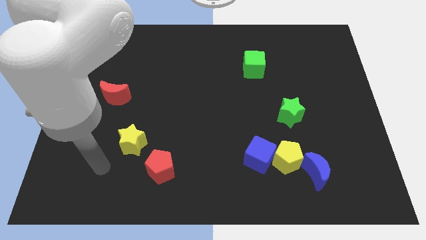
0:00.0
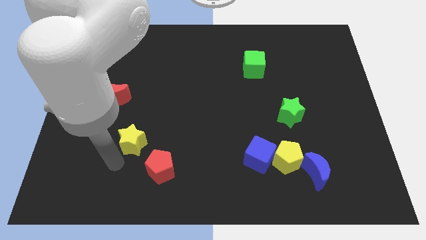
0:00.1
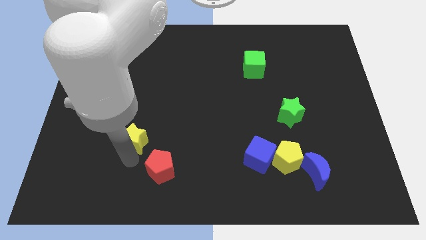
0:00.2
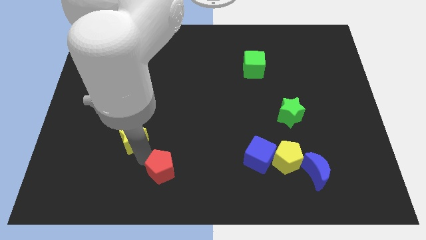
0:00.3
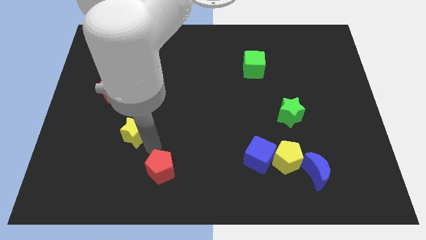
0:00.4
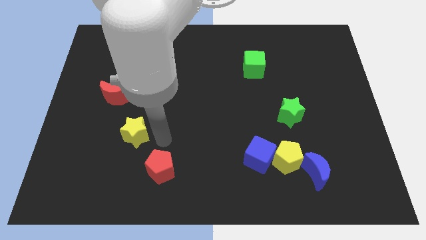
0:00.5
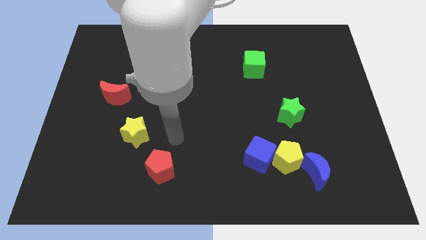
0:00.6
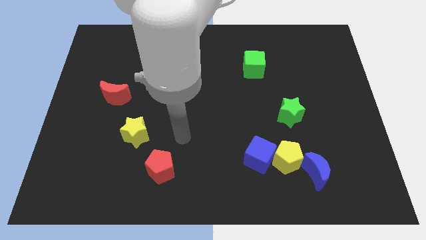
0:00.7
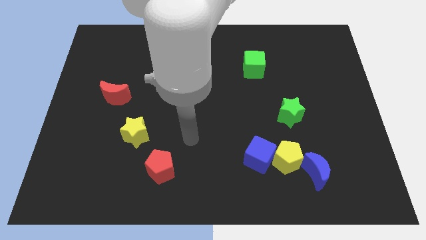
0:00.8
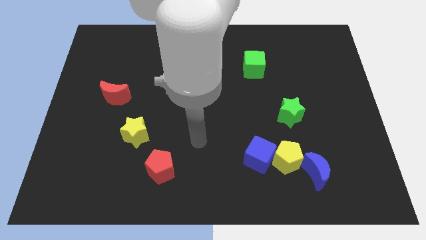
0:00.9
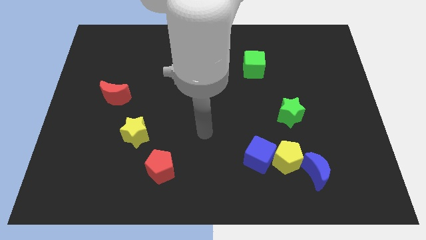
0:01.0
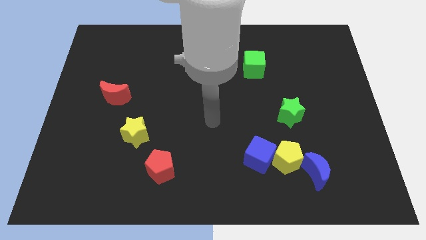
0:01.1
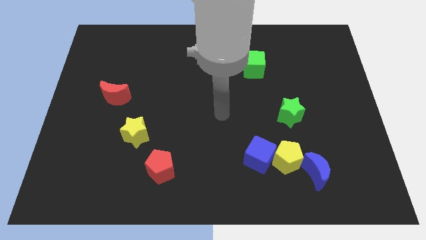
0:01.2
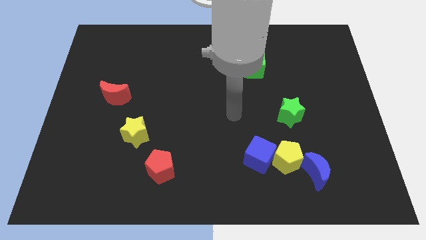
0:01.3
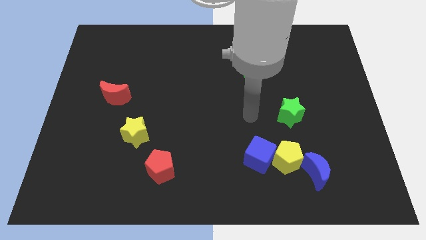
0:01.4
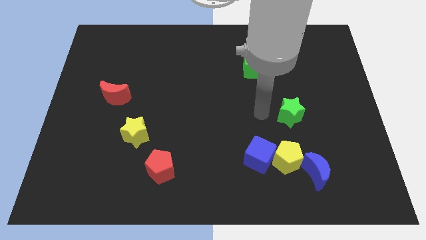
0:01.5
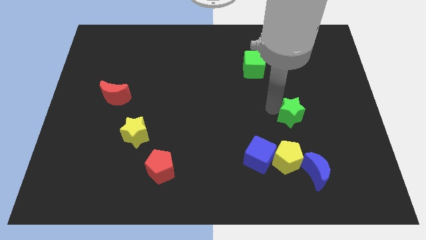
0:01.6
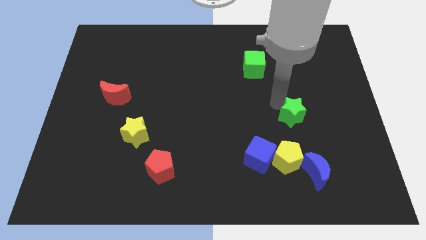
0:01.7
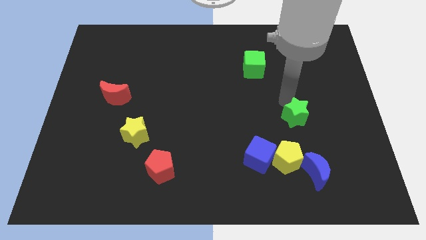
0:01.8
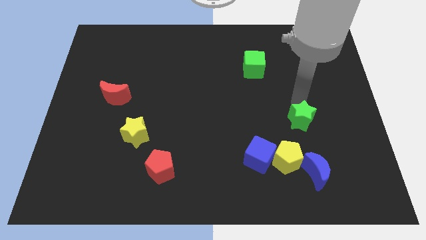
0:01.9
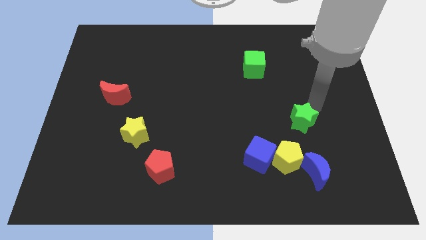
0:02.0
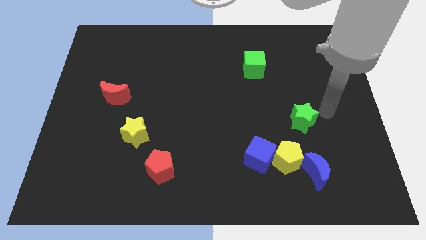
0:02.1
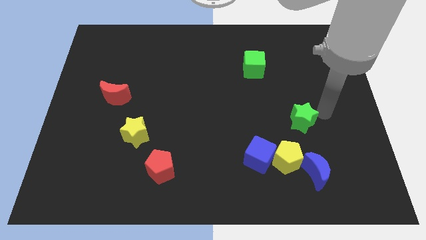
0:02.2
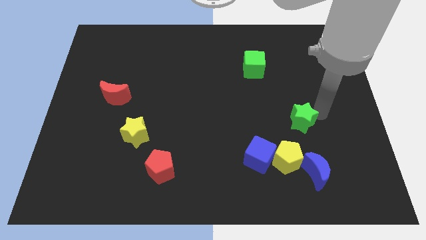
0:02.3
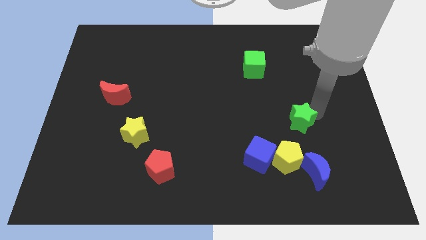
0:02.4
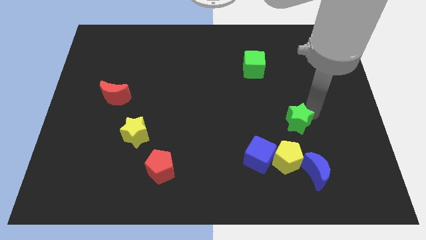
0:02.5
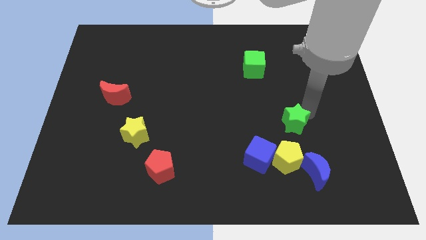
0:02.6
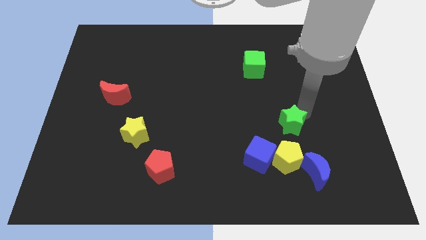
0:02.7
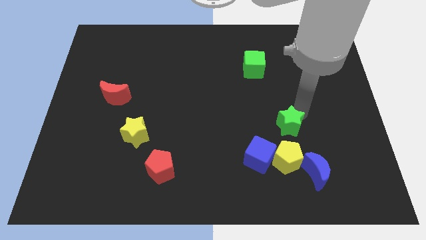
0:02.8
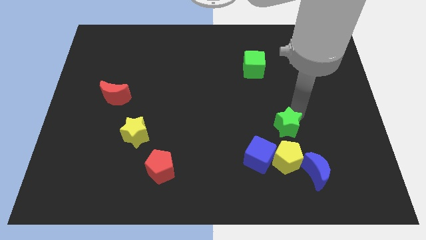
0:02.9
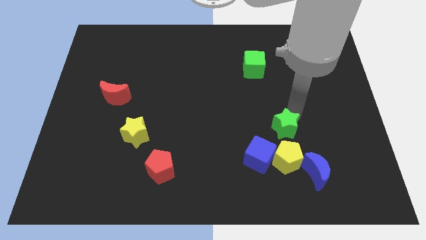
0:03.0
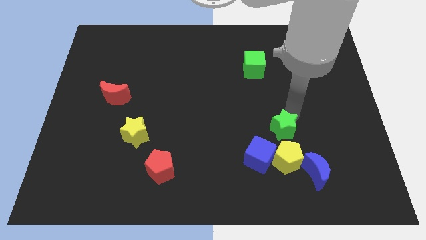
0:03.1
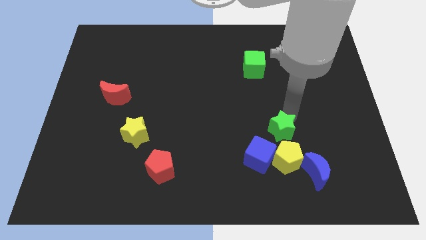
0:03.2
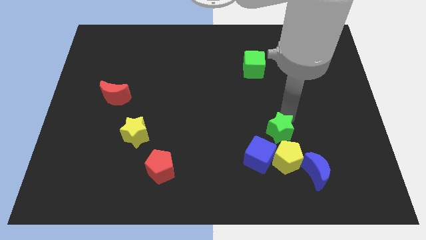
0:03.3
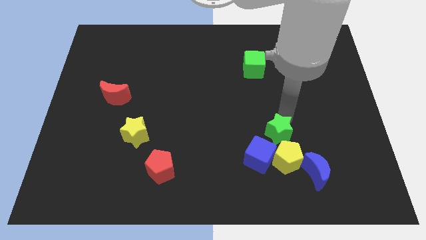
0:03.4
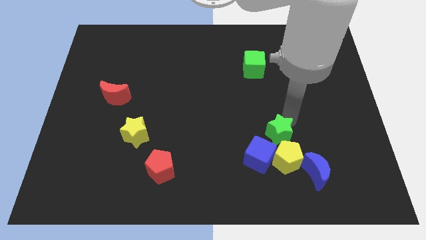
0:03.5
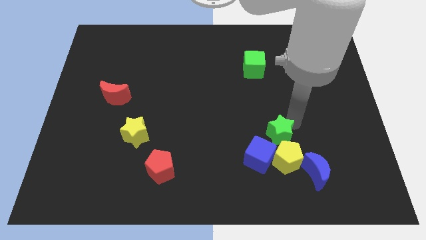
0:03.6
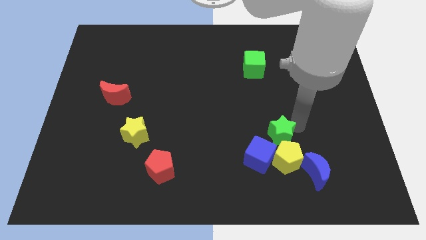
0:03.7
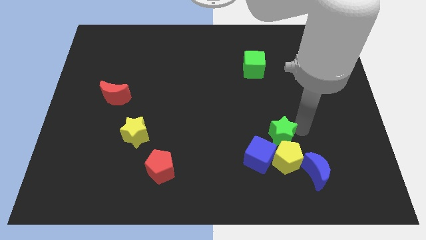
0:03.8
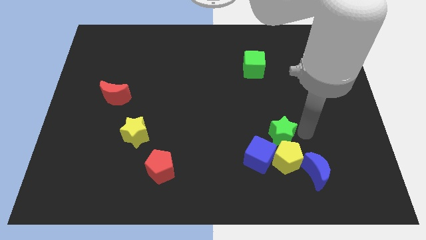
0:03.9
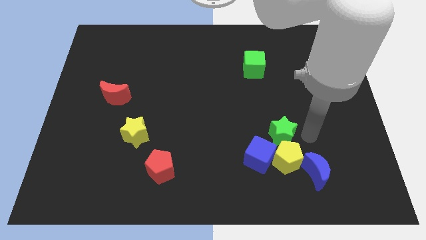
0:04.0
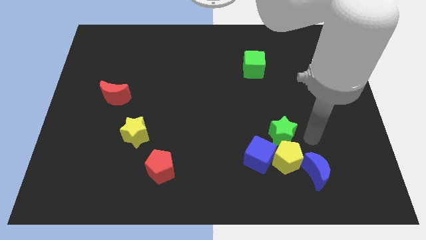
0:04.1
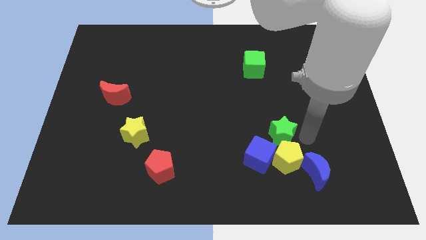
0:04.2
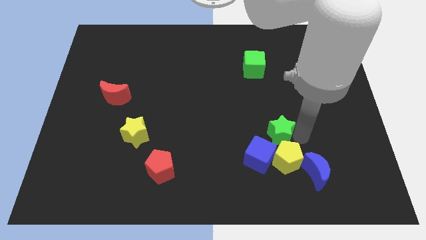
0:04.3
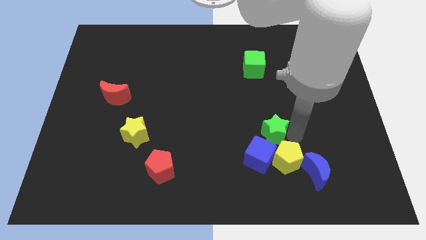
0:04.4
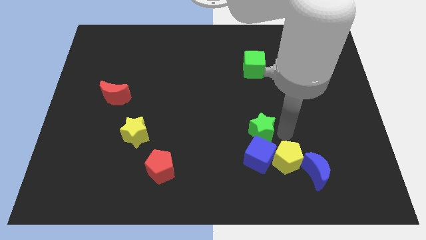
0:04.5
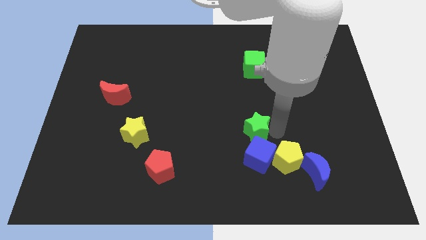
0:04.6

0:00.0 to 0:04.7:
put the green star to the top left side of the blue cube

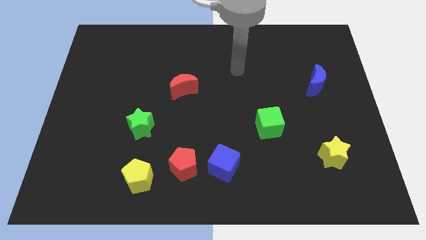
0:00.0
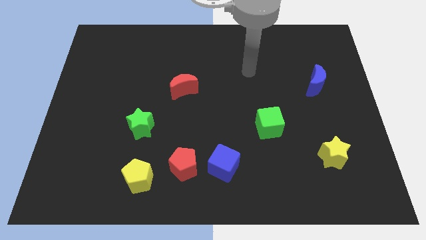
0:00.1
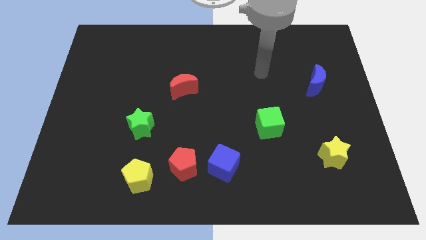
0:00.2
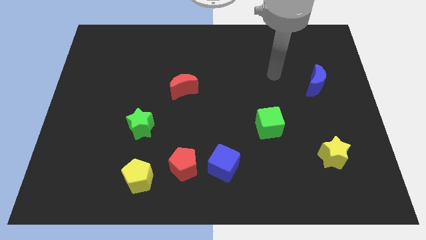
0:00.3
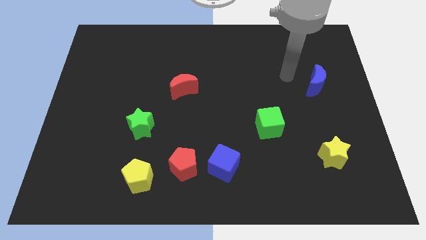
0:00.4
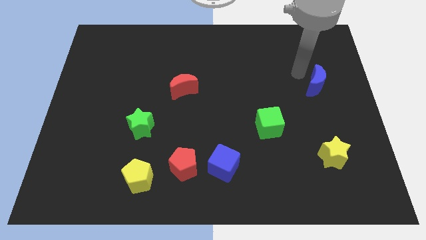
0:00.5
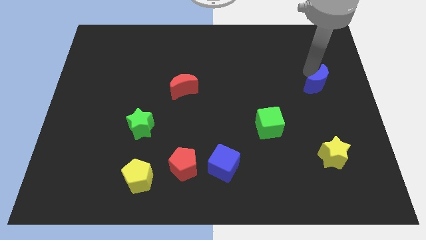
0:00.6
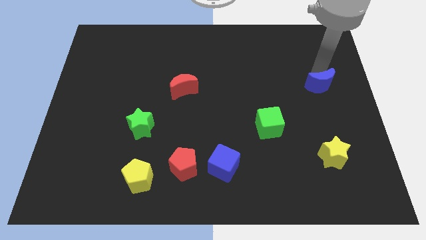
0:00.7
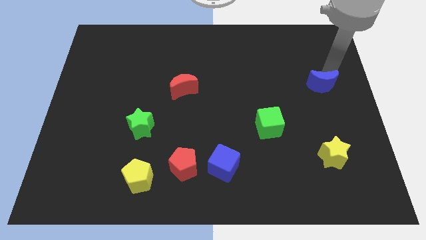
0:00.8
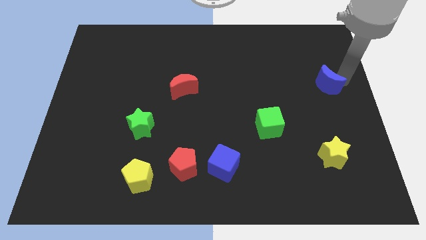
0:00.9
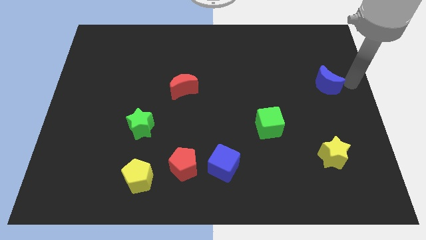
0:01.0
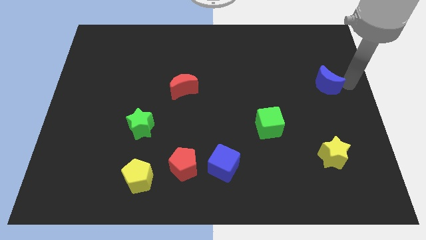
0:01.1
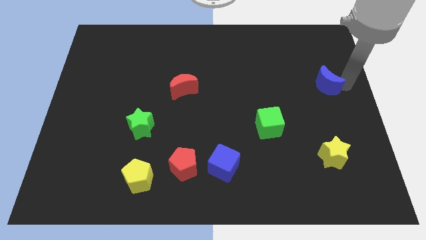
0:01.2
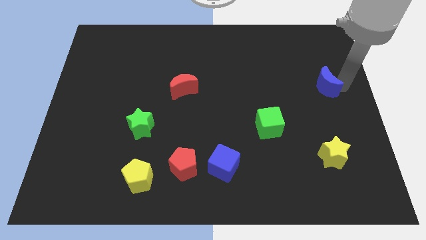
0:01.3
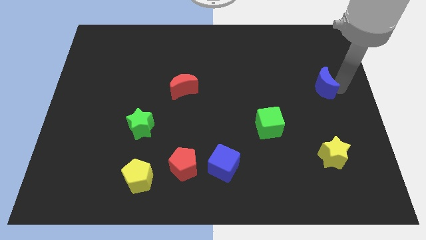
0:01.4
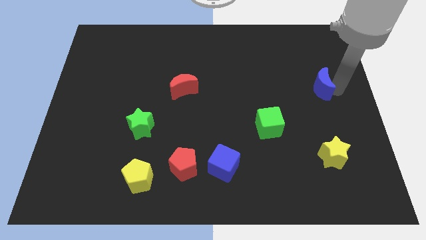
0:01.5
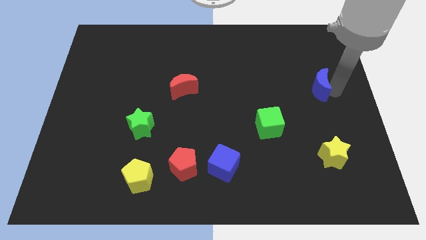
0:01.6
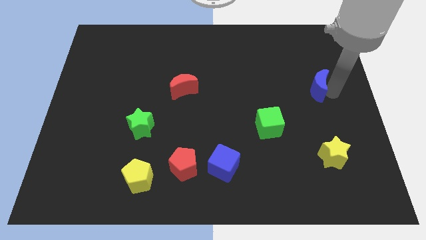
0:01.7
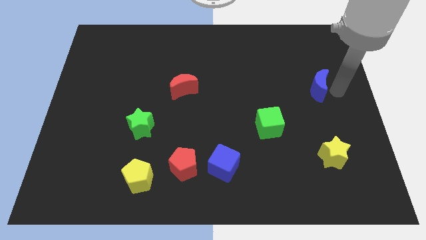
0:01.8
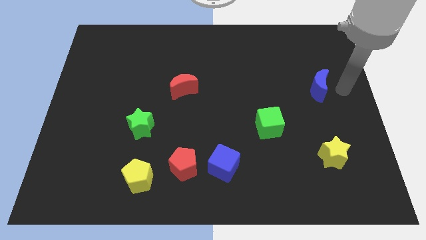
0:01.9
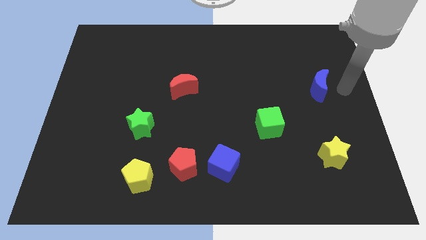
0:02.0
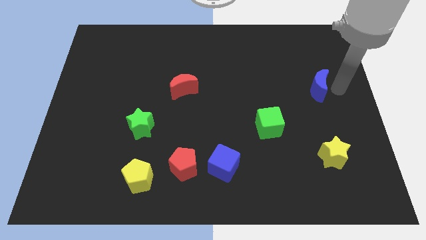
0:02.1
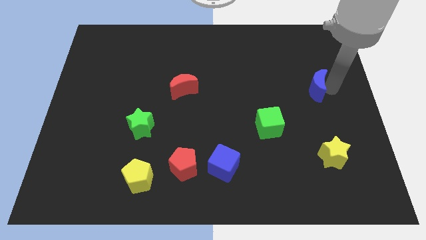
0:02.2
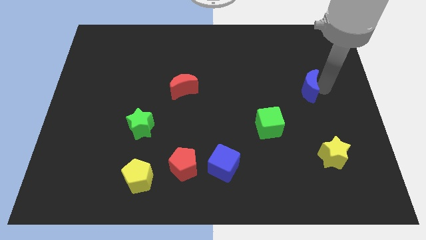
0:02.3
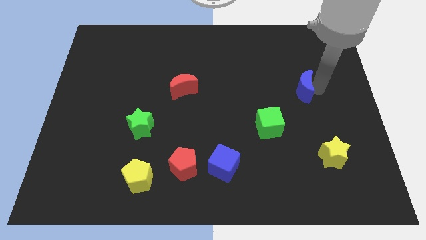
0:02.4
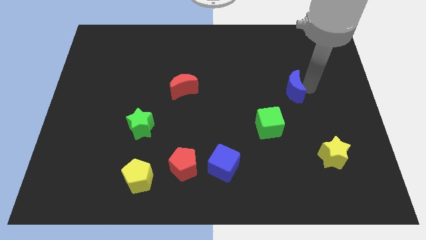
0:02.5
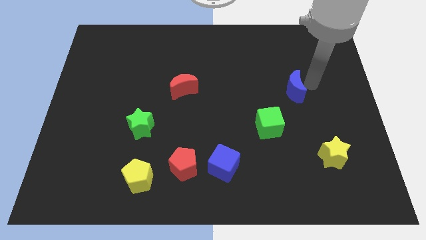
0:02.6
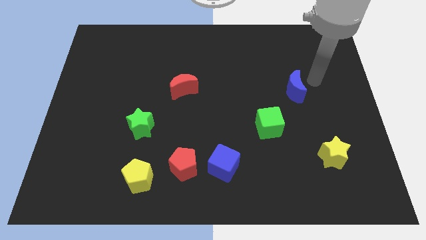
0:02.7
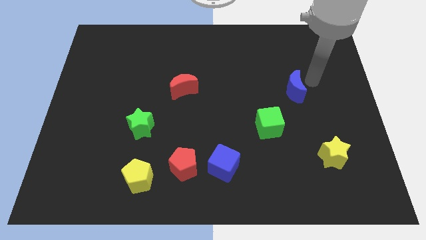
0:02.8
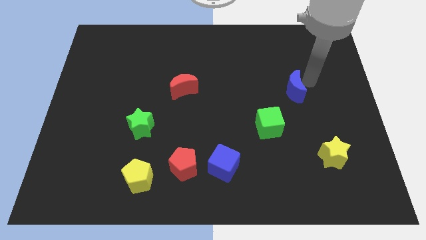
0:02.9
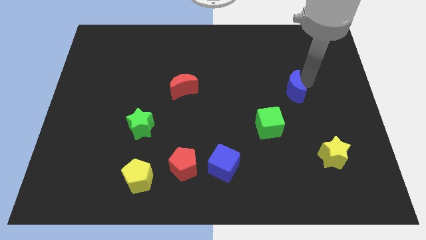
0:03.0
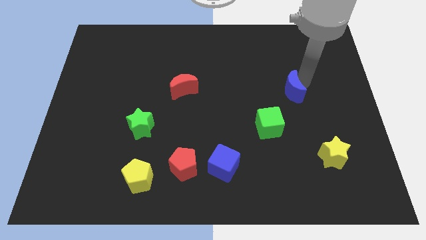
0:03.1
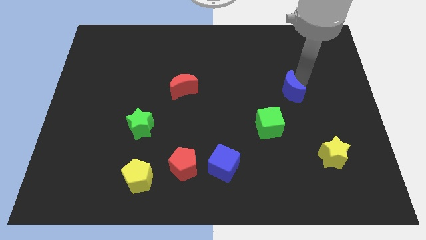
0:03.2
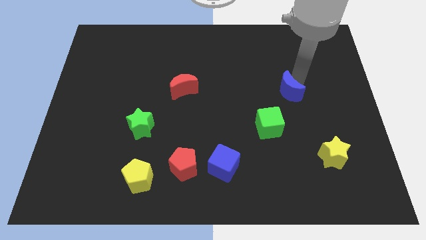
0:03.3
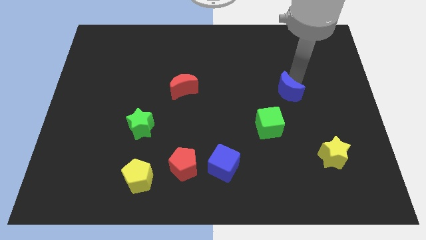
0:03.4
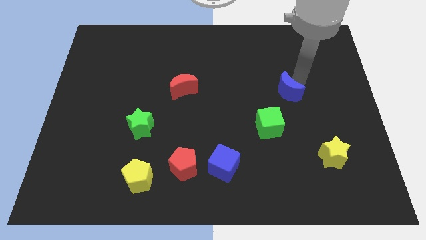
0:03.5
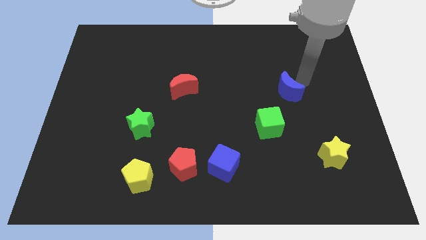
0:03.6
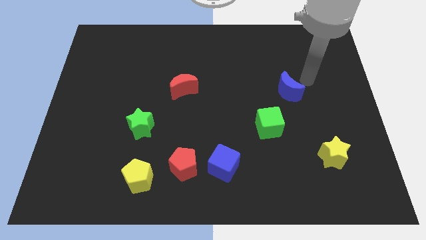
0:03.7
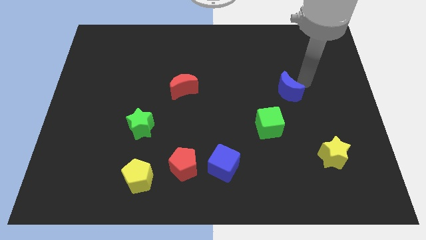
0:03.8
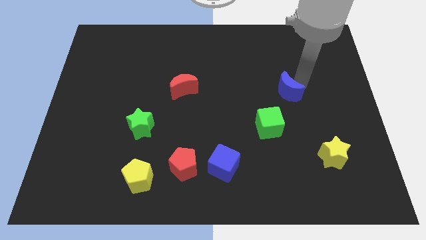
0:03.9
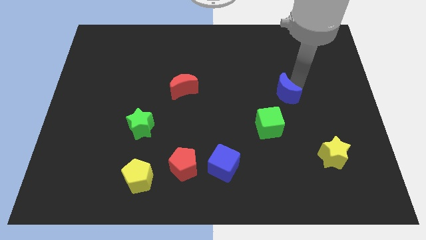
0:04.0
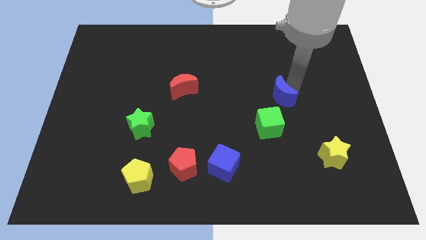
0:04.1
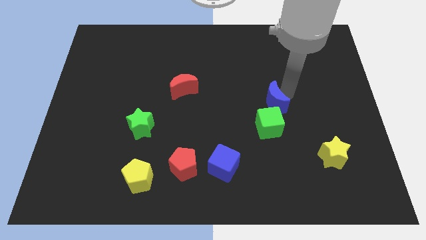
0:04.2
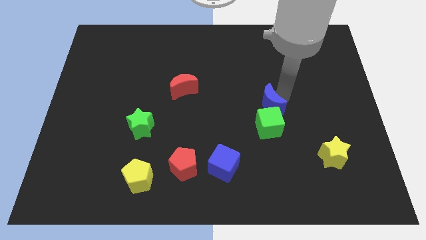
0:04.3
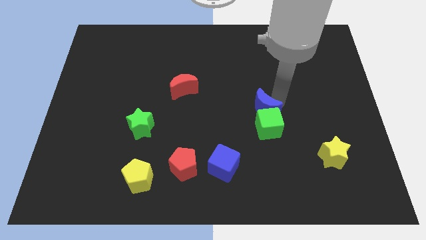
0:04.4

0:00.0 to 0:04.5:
put the blue moon diagonally up and to the left of the green cube
